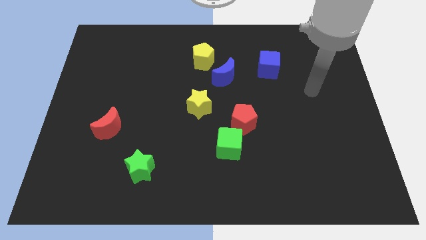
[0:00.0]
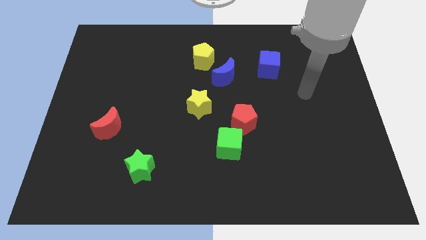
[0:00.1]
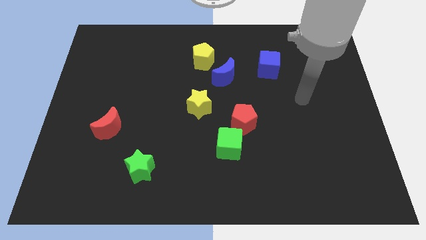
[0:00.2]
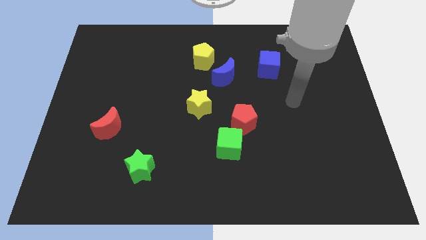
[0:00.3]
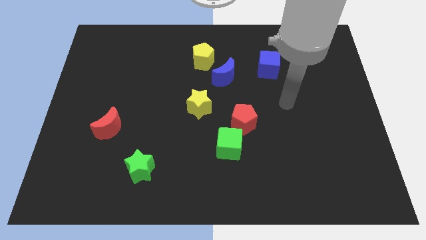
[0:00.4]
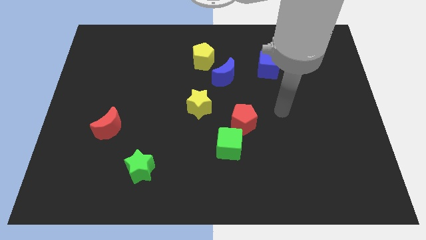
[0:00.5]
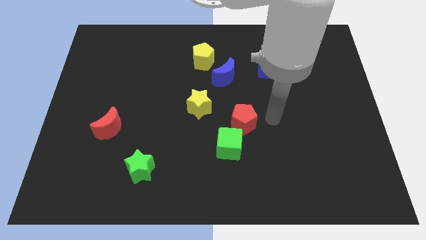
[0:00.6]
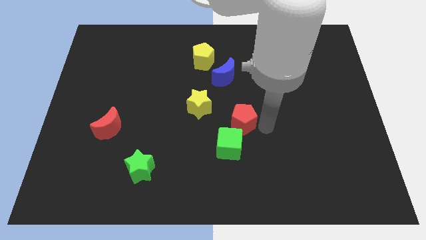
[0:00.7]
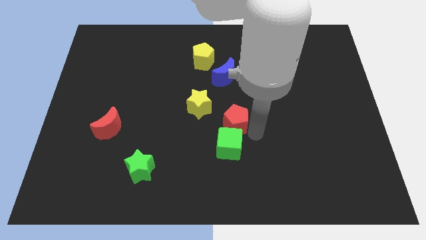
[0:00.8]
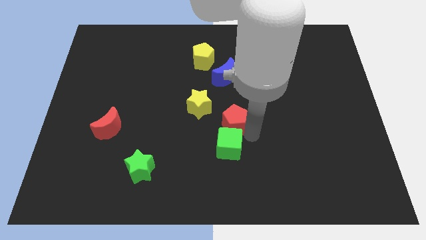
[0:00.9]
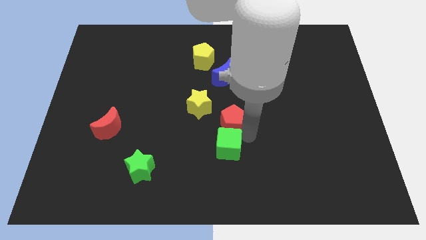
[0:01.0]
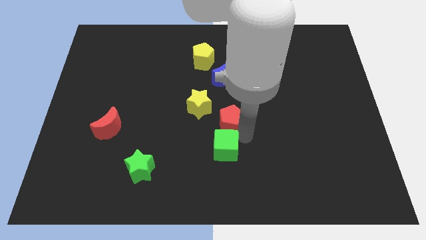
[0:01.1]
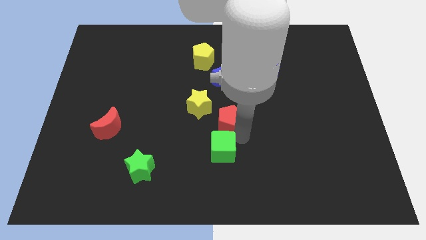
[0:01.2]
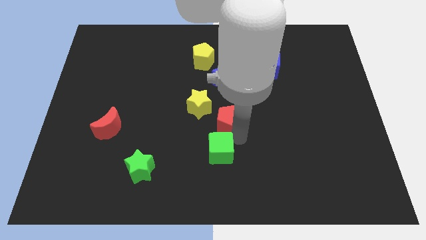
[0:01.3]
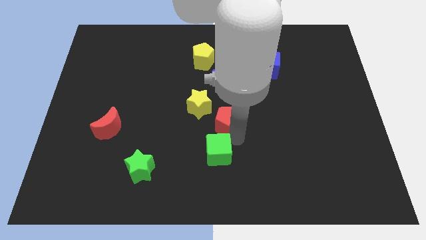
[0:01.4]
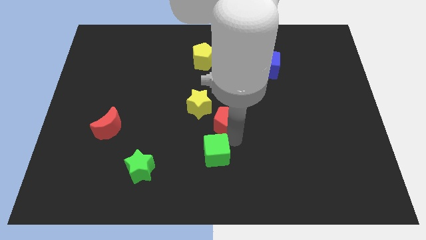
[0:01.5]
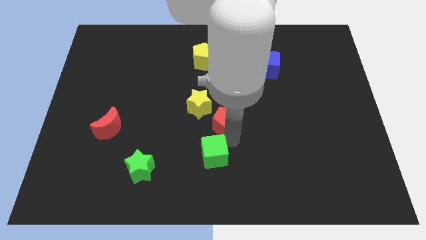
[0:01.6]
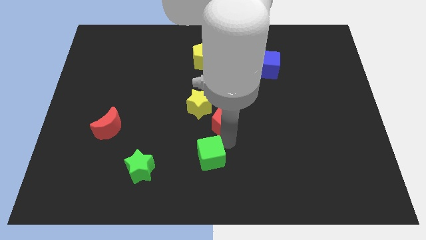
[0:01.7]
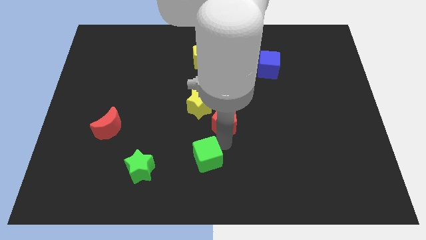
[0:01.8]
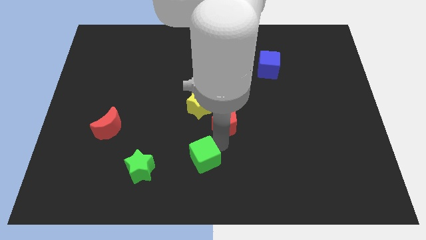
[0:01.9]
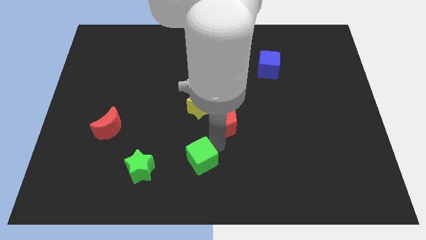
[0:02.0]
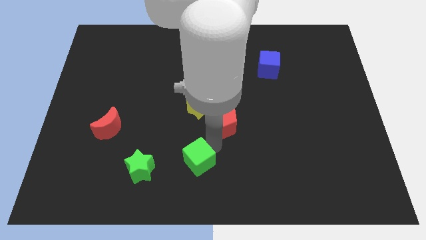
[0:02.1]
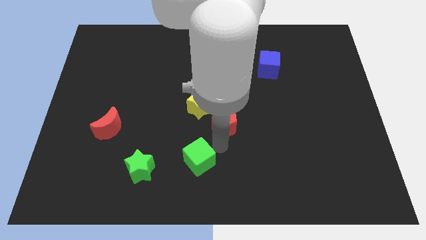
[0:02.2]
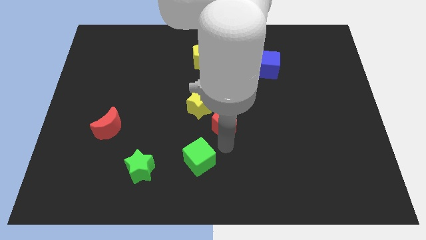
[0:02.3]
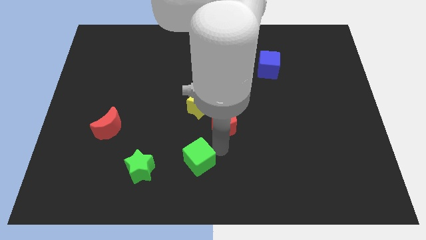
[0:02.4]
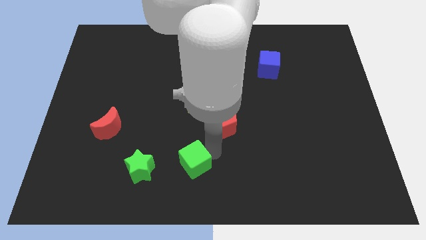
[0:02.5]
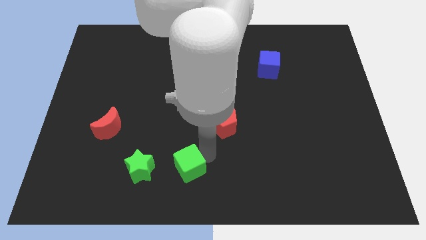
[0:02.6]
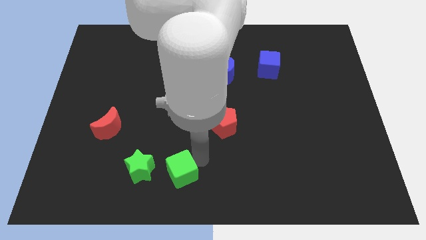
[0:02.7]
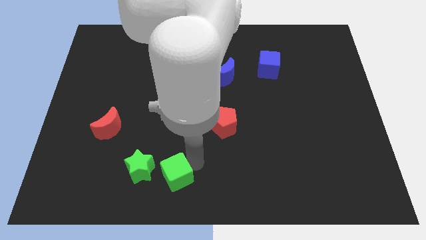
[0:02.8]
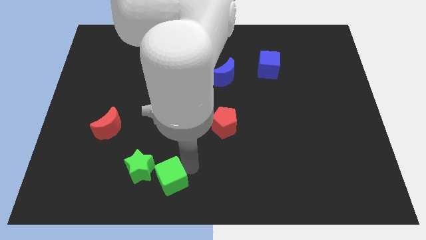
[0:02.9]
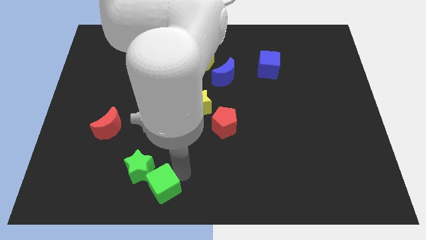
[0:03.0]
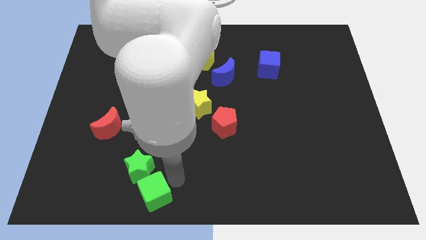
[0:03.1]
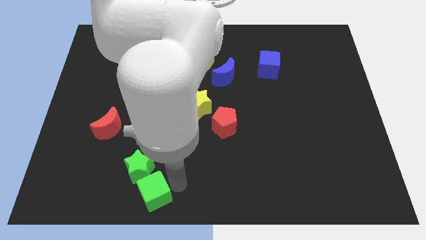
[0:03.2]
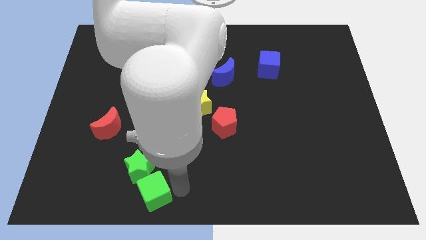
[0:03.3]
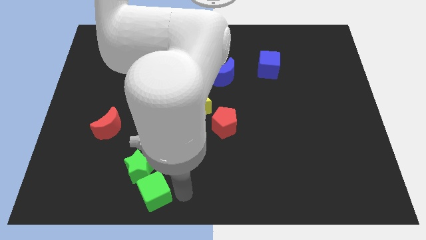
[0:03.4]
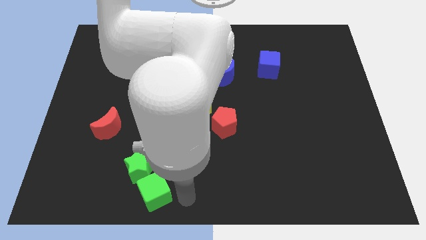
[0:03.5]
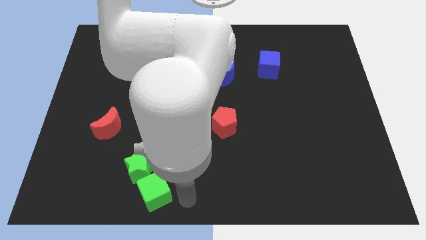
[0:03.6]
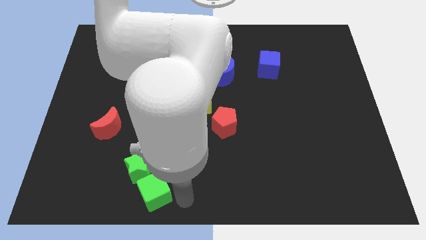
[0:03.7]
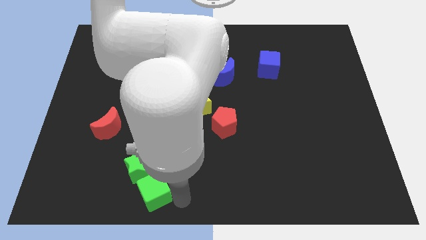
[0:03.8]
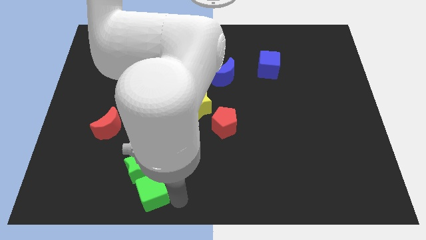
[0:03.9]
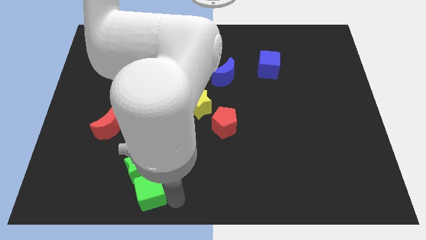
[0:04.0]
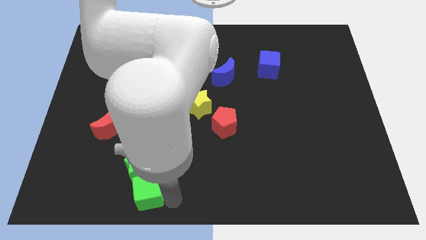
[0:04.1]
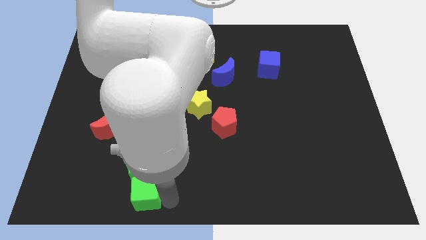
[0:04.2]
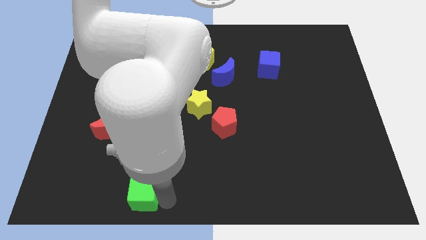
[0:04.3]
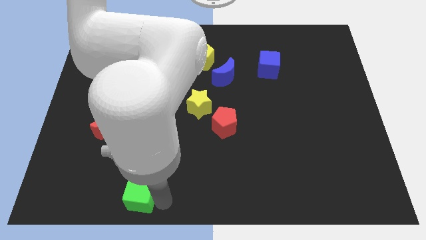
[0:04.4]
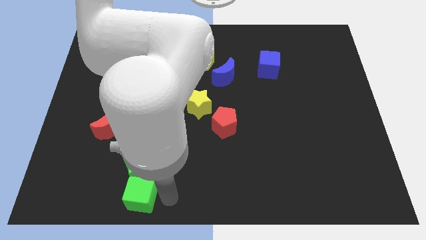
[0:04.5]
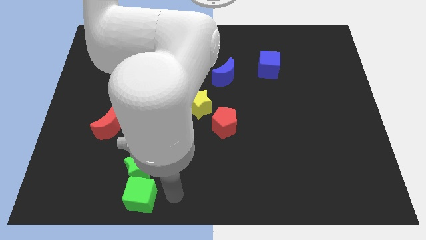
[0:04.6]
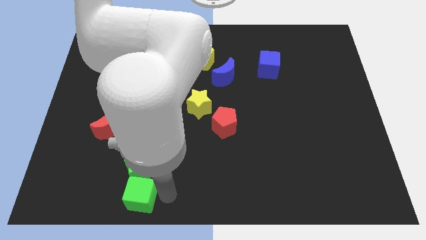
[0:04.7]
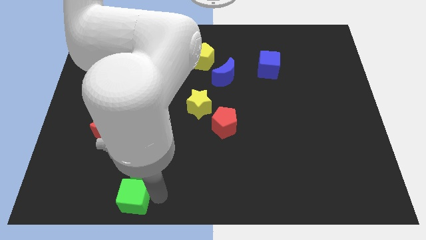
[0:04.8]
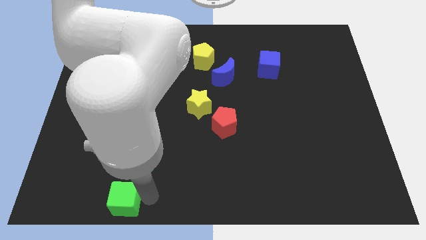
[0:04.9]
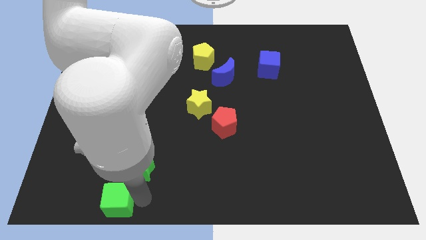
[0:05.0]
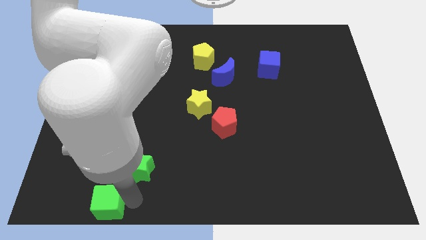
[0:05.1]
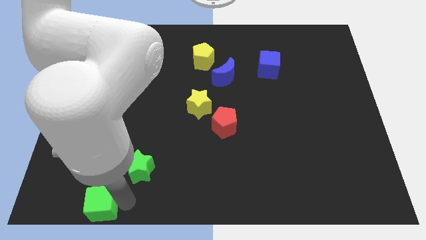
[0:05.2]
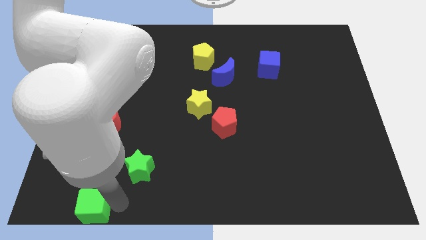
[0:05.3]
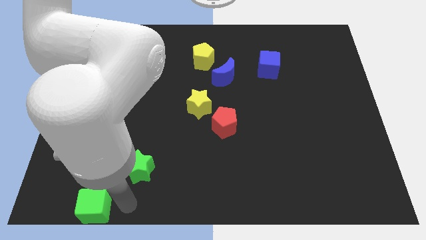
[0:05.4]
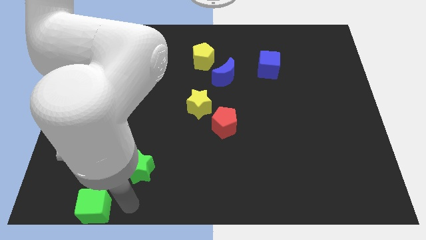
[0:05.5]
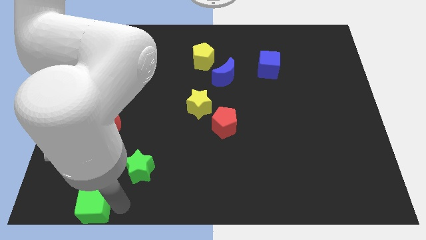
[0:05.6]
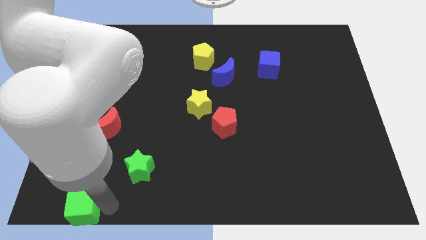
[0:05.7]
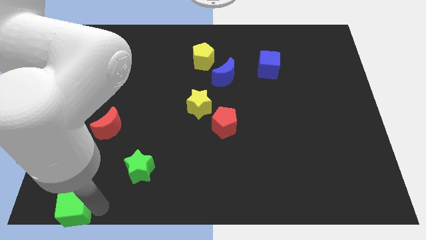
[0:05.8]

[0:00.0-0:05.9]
move the green cube to the bottom left

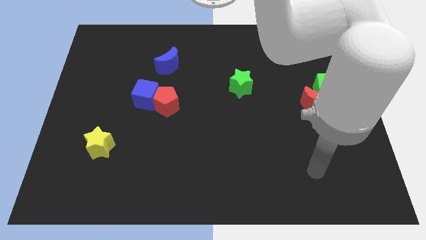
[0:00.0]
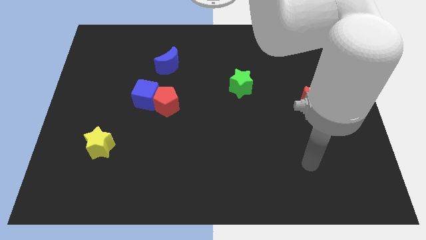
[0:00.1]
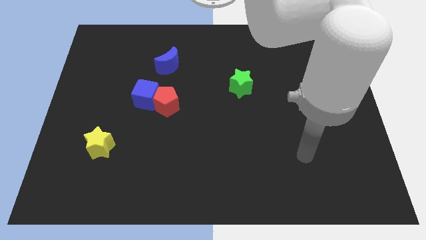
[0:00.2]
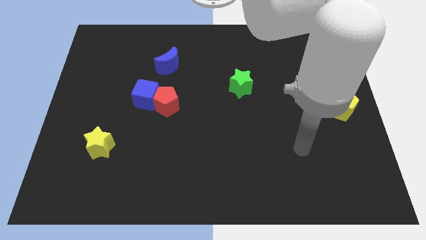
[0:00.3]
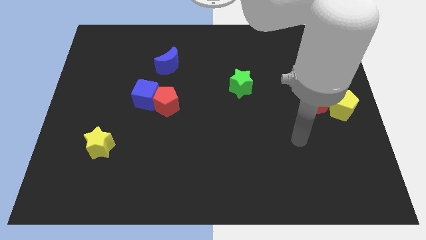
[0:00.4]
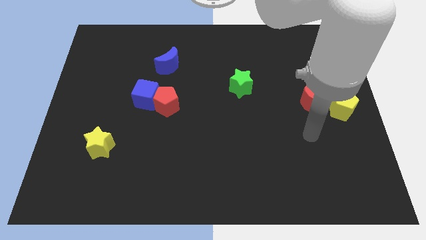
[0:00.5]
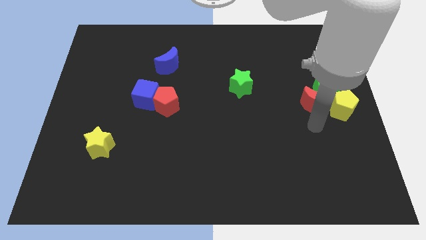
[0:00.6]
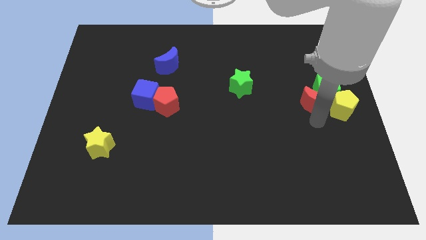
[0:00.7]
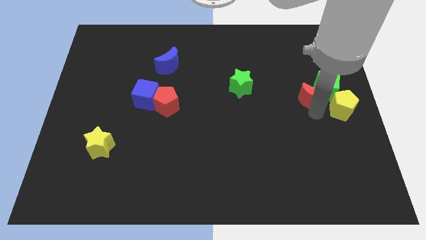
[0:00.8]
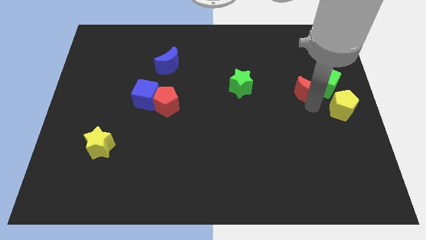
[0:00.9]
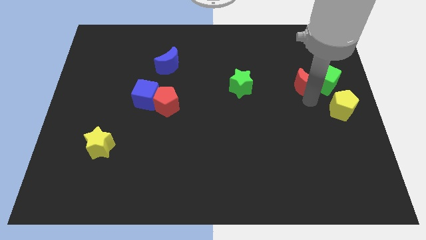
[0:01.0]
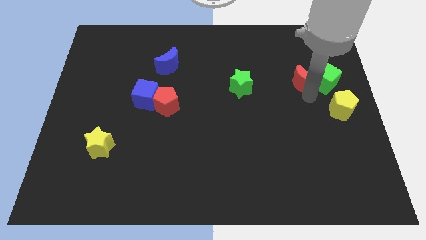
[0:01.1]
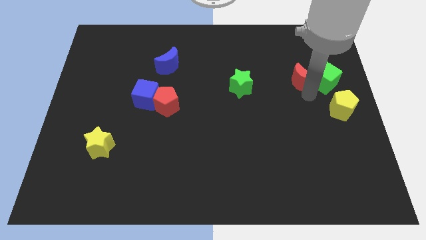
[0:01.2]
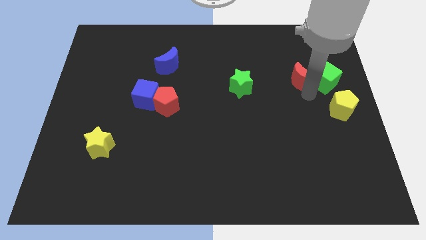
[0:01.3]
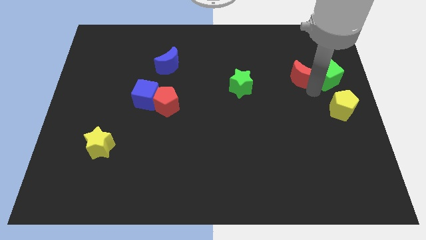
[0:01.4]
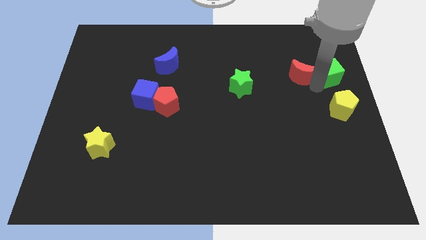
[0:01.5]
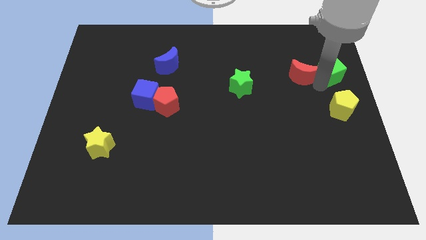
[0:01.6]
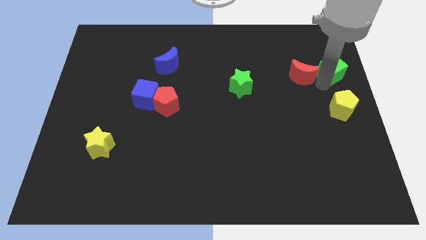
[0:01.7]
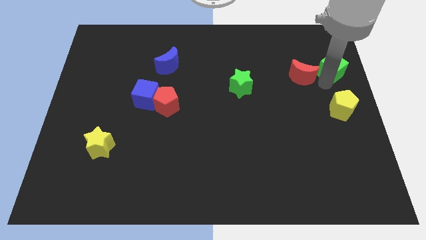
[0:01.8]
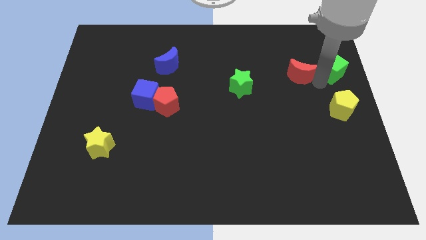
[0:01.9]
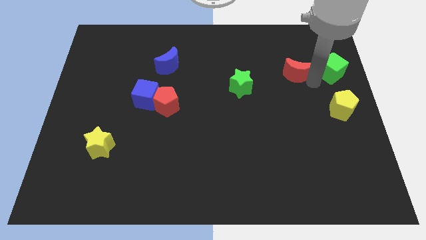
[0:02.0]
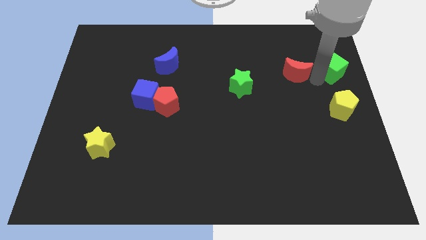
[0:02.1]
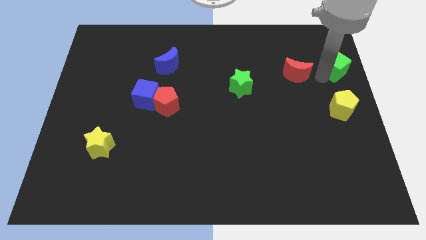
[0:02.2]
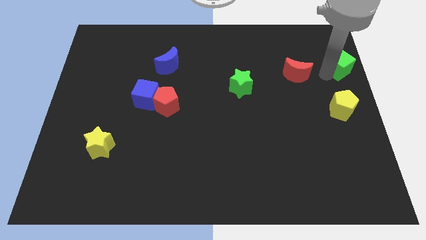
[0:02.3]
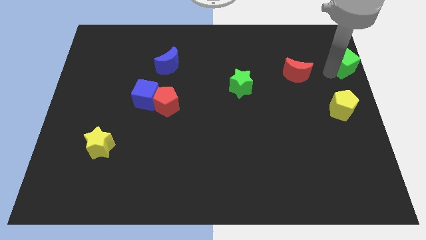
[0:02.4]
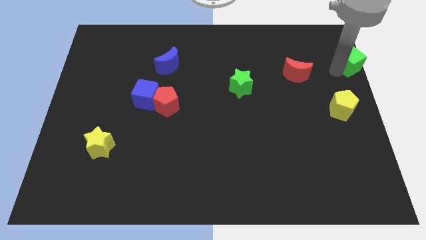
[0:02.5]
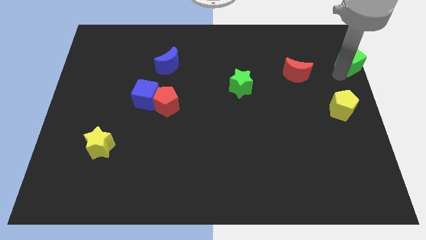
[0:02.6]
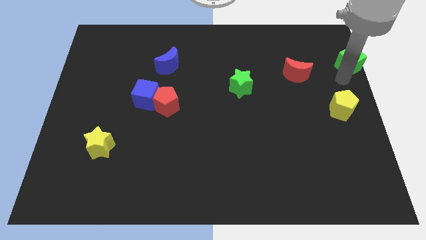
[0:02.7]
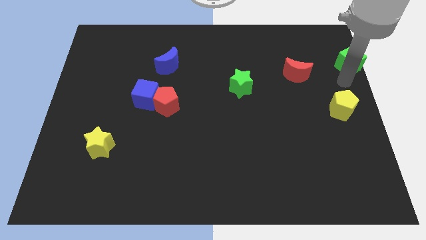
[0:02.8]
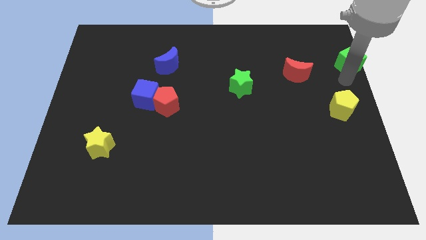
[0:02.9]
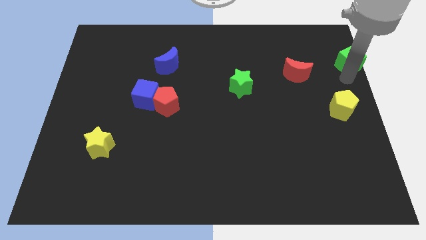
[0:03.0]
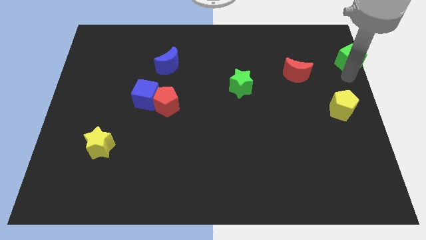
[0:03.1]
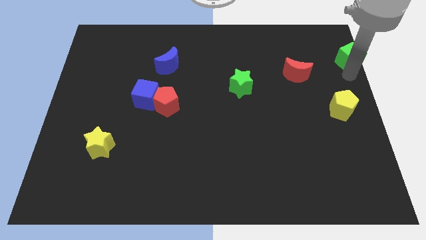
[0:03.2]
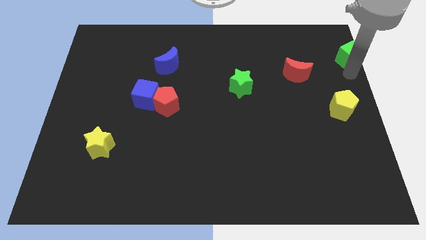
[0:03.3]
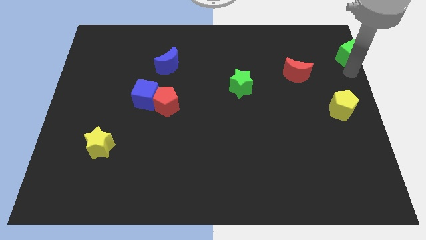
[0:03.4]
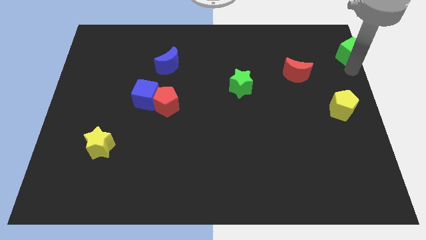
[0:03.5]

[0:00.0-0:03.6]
move the green cube to the top right
